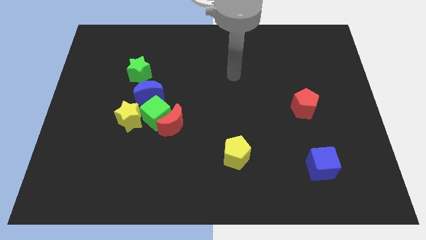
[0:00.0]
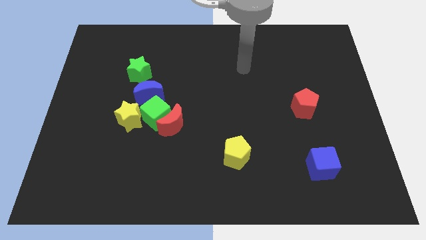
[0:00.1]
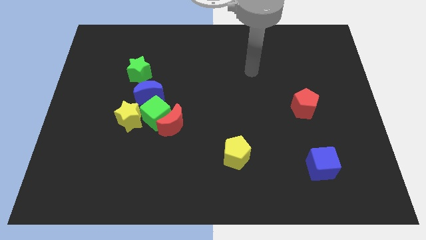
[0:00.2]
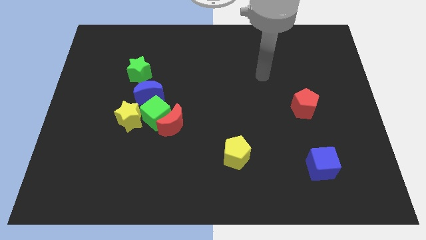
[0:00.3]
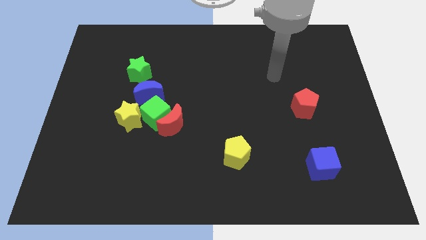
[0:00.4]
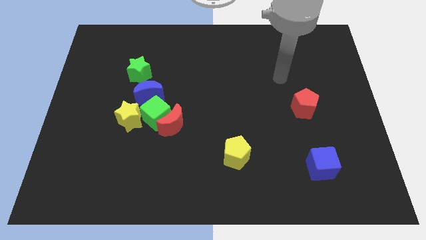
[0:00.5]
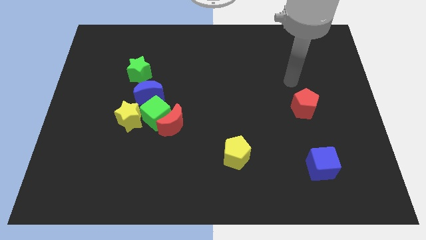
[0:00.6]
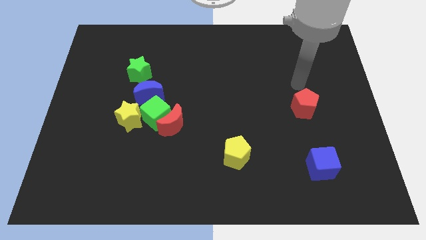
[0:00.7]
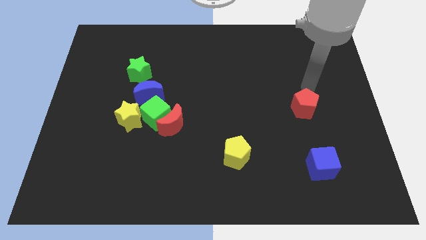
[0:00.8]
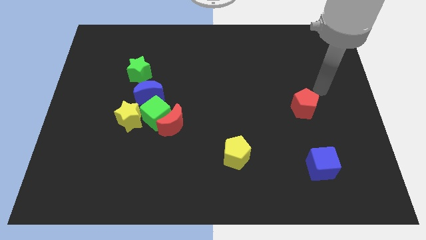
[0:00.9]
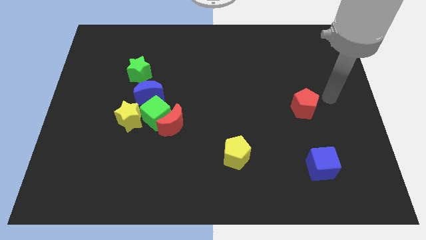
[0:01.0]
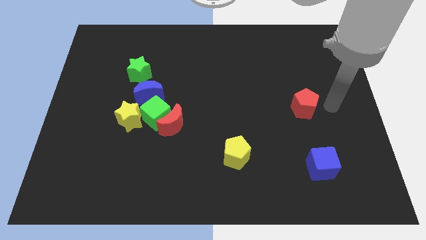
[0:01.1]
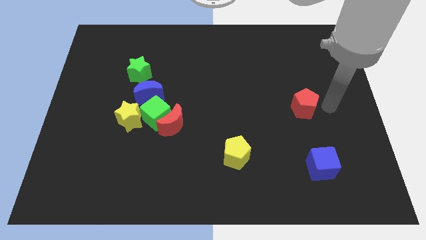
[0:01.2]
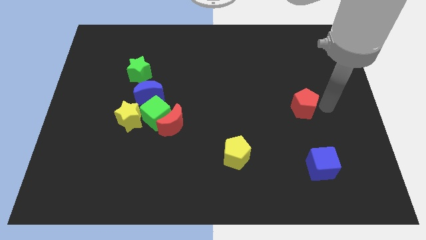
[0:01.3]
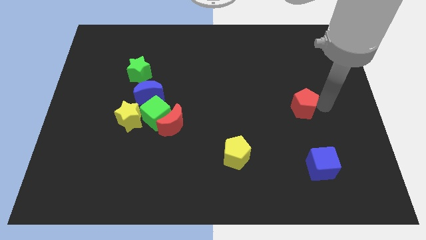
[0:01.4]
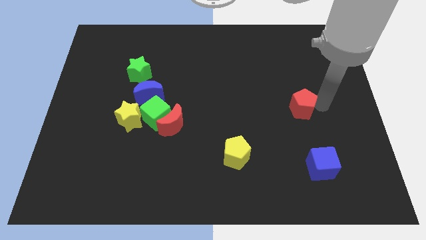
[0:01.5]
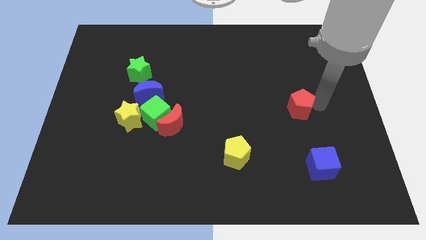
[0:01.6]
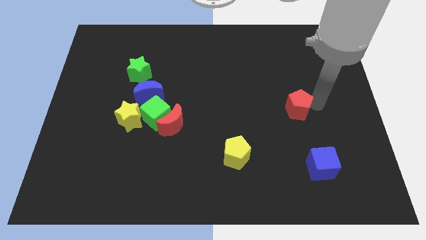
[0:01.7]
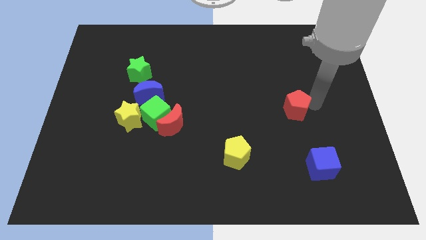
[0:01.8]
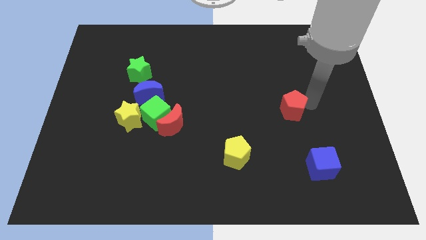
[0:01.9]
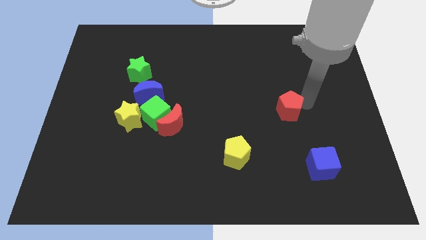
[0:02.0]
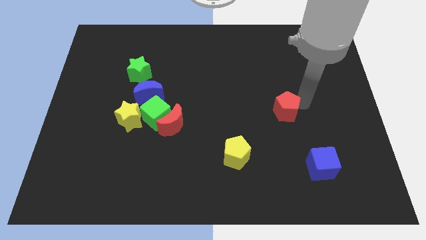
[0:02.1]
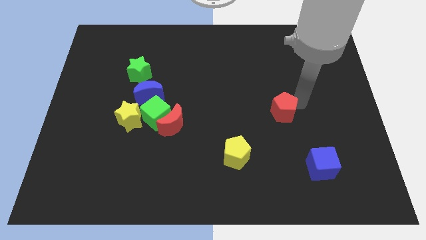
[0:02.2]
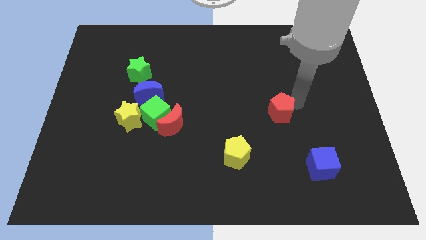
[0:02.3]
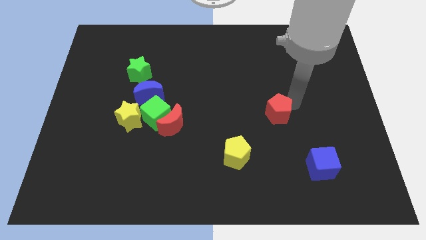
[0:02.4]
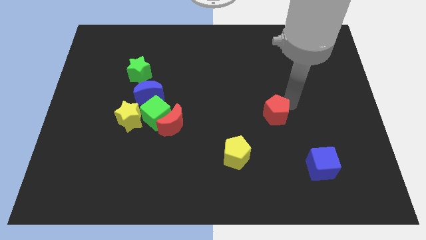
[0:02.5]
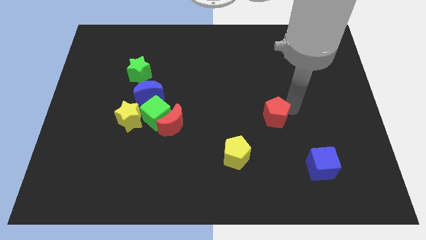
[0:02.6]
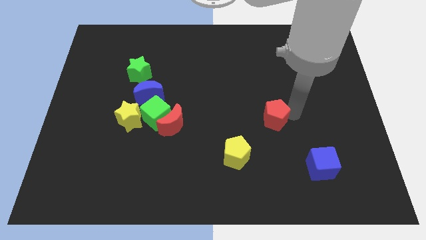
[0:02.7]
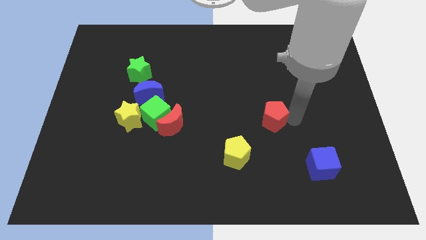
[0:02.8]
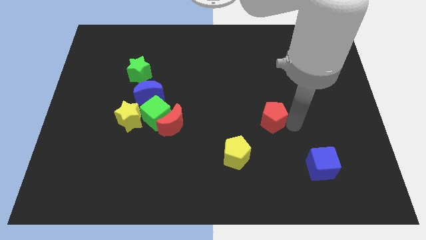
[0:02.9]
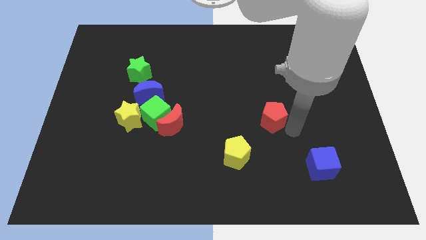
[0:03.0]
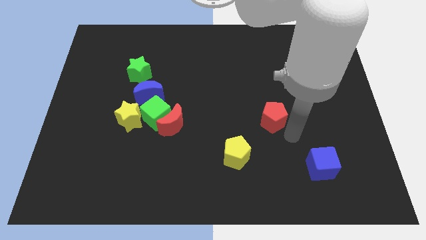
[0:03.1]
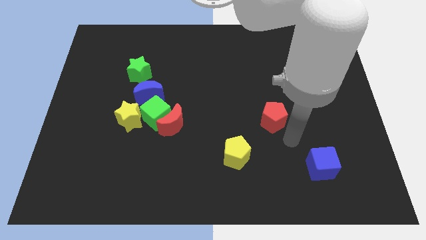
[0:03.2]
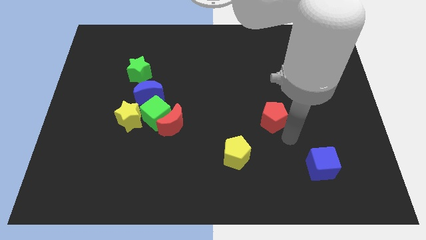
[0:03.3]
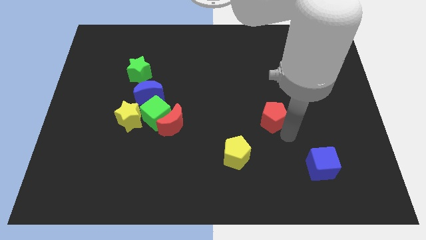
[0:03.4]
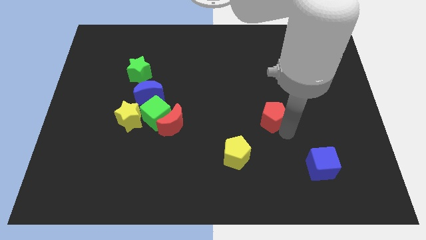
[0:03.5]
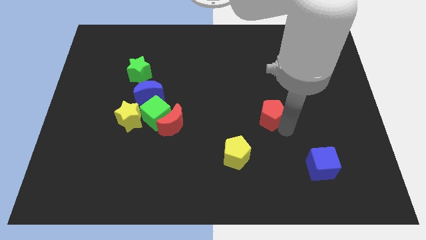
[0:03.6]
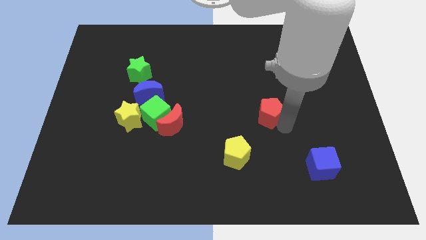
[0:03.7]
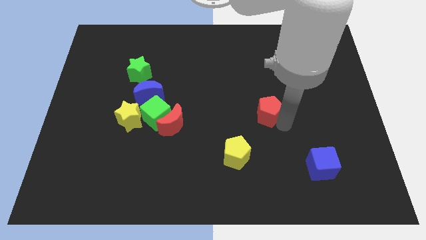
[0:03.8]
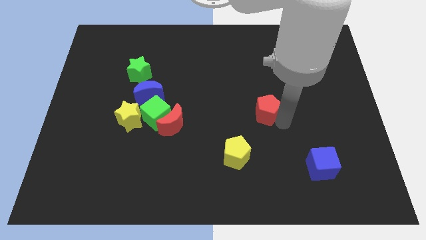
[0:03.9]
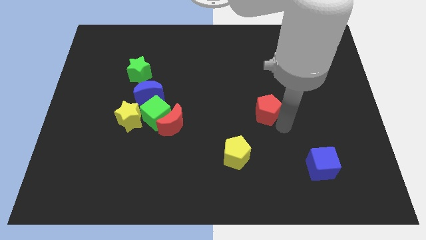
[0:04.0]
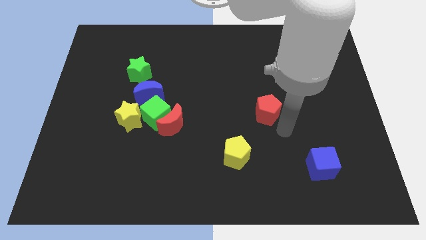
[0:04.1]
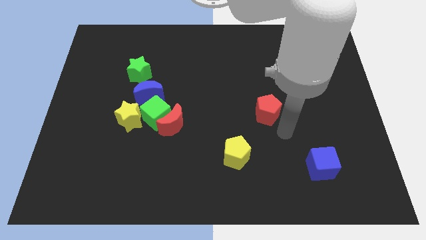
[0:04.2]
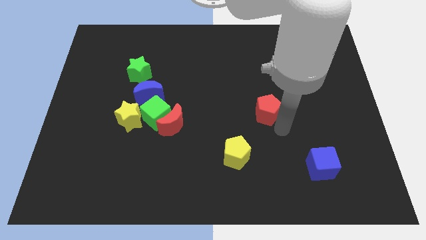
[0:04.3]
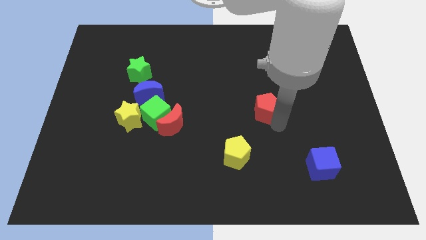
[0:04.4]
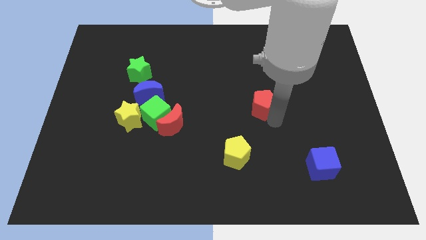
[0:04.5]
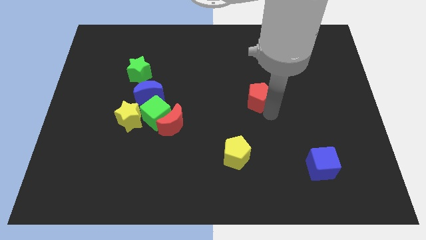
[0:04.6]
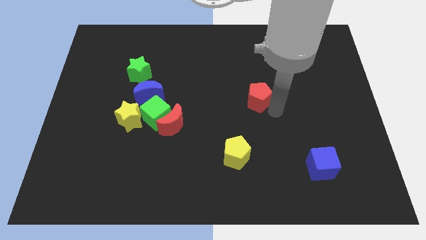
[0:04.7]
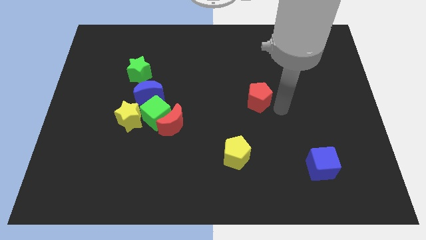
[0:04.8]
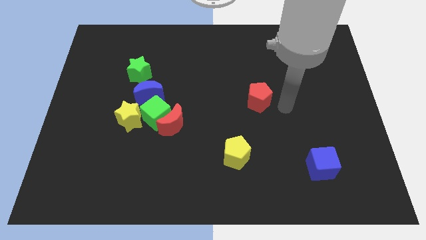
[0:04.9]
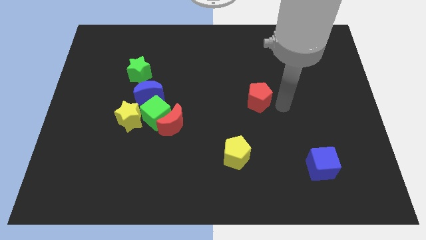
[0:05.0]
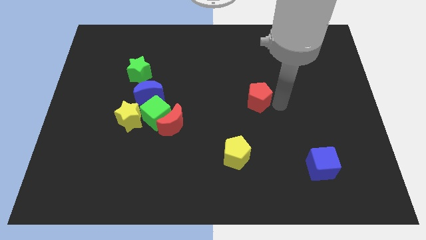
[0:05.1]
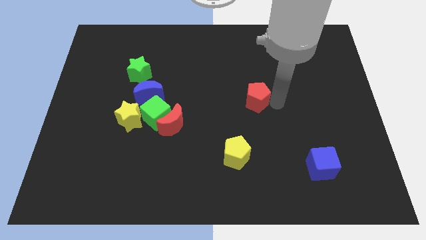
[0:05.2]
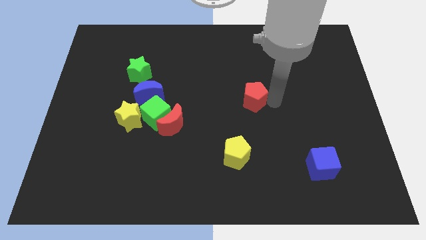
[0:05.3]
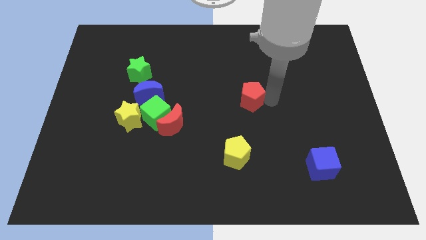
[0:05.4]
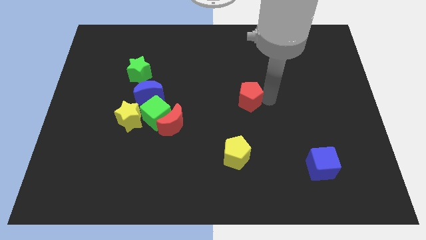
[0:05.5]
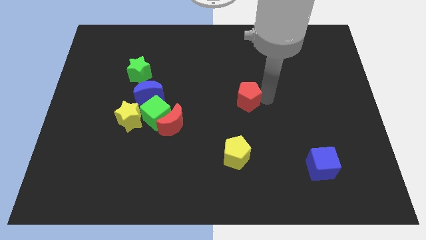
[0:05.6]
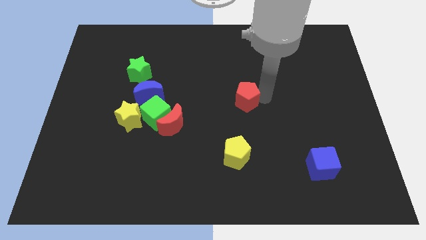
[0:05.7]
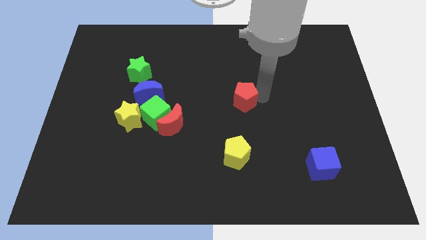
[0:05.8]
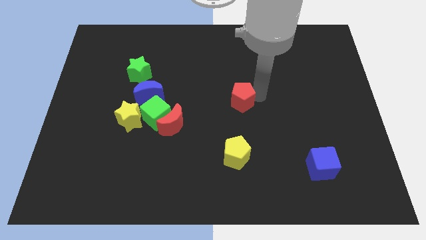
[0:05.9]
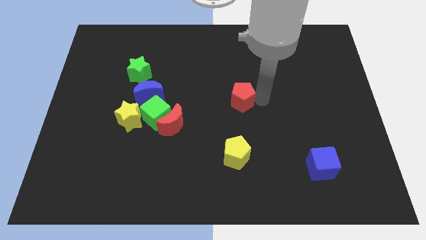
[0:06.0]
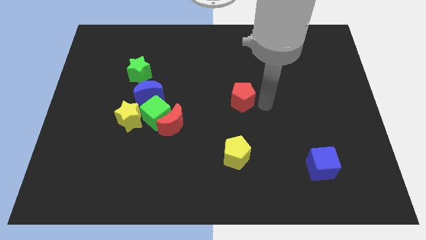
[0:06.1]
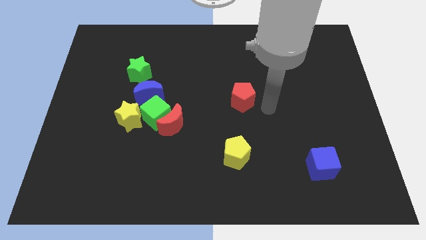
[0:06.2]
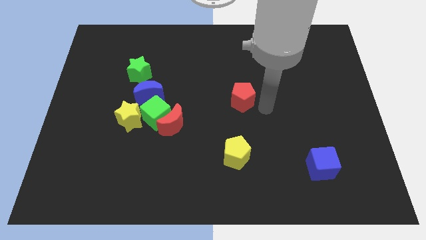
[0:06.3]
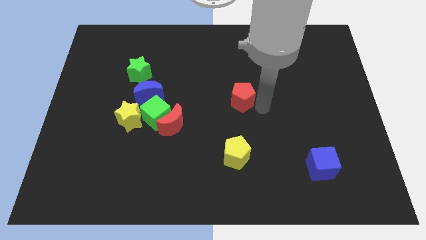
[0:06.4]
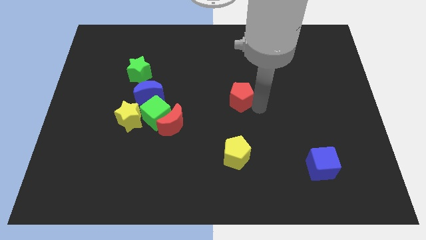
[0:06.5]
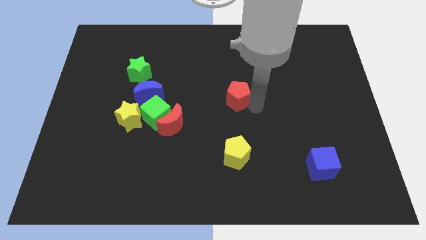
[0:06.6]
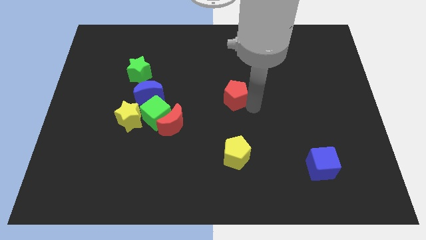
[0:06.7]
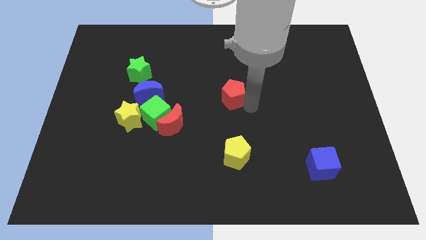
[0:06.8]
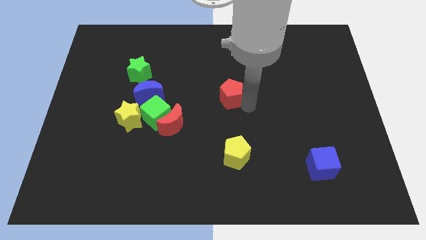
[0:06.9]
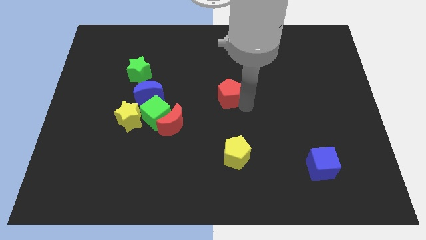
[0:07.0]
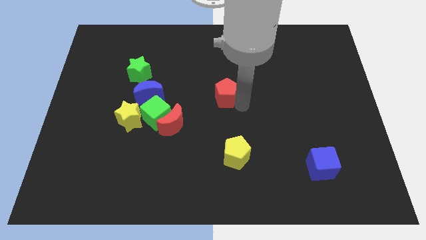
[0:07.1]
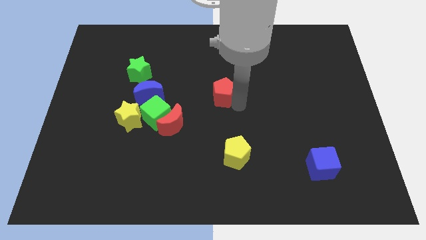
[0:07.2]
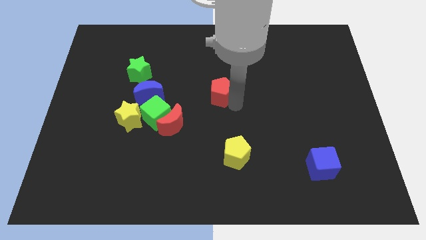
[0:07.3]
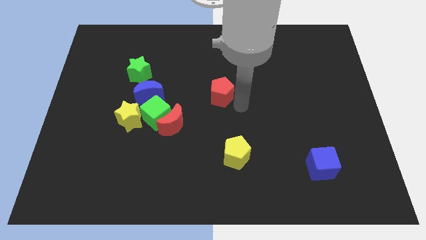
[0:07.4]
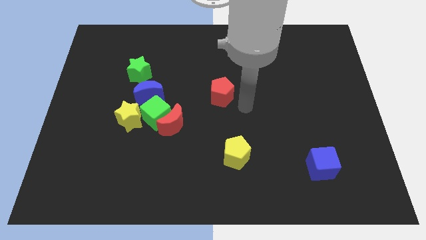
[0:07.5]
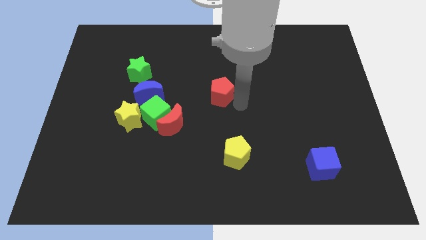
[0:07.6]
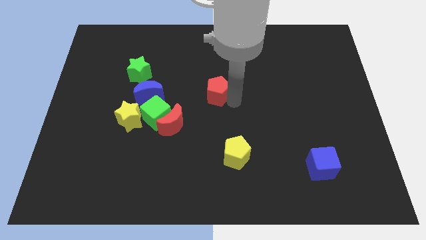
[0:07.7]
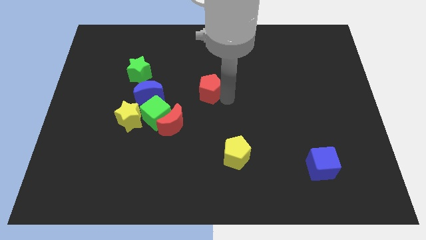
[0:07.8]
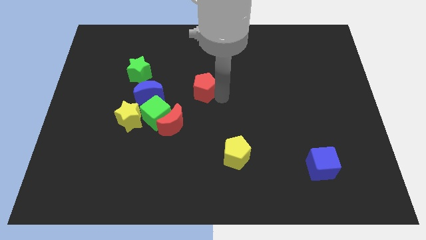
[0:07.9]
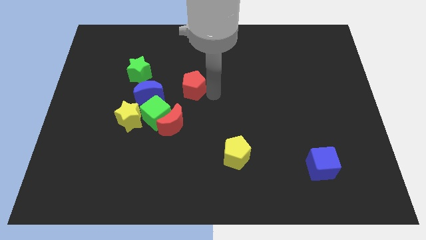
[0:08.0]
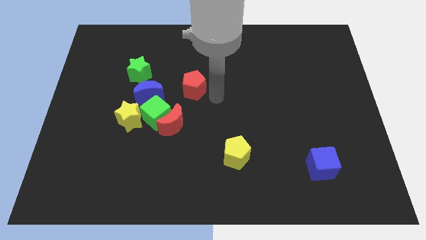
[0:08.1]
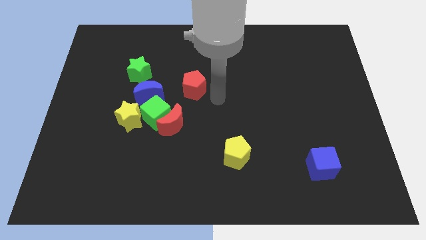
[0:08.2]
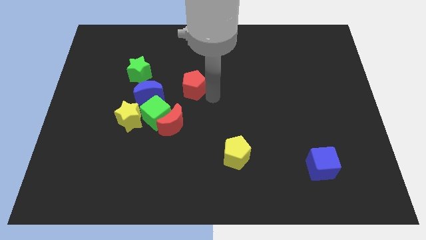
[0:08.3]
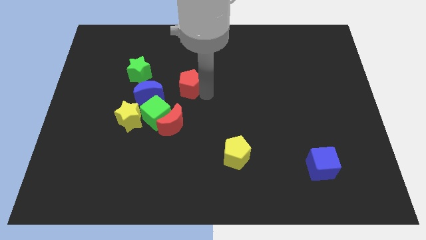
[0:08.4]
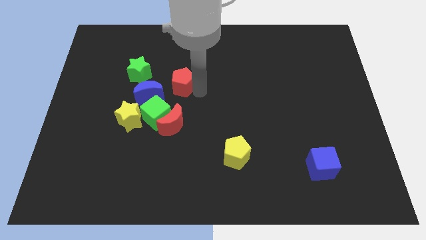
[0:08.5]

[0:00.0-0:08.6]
push the red pentagon to the top right of the blue moon
